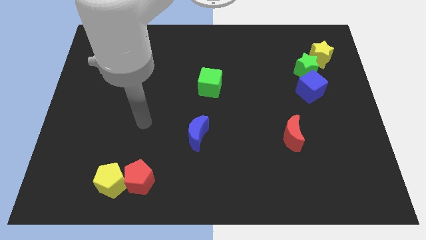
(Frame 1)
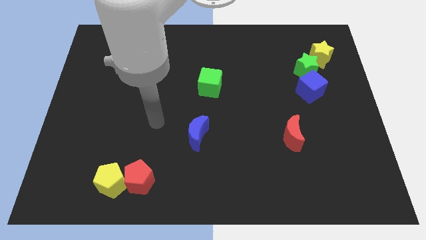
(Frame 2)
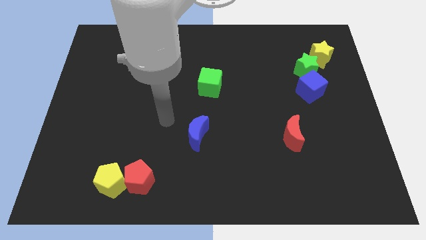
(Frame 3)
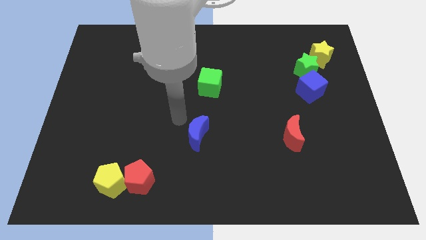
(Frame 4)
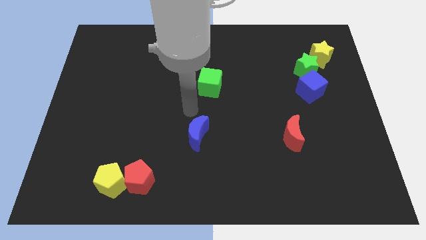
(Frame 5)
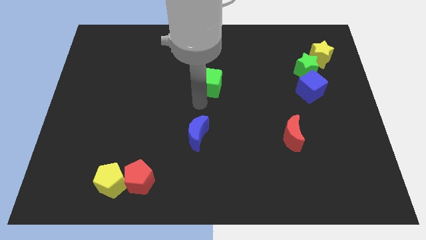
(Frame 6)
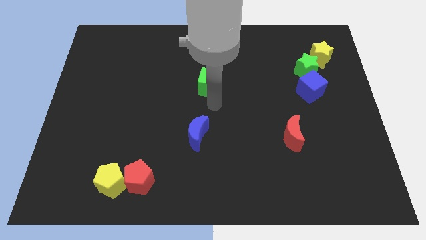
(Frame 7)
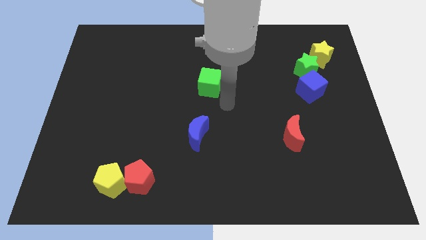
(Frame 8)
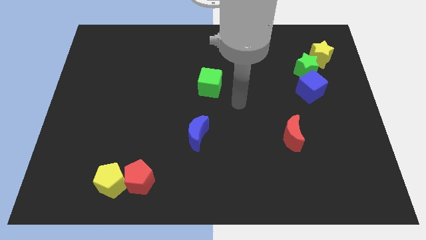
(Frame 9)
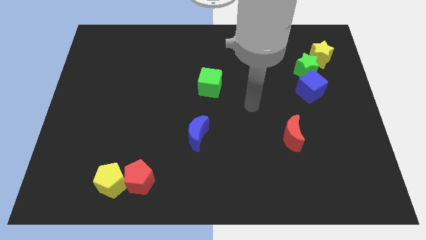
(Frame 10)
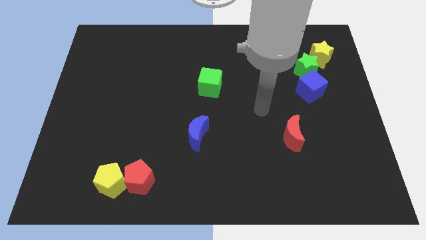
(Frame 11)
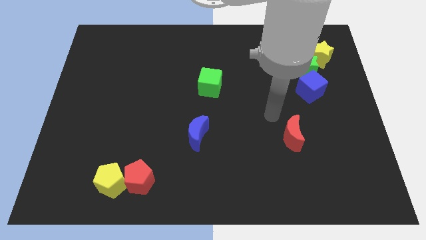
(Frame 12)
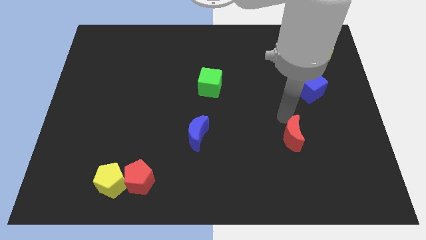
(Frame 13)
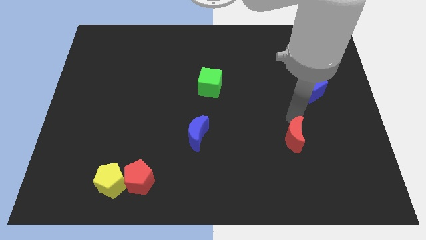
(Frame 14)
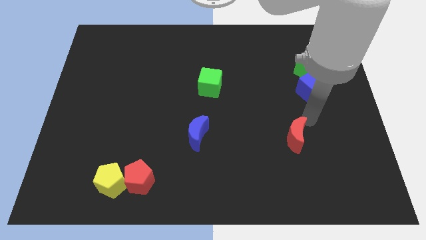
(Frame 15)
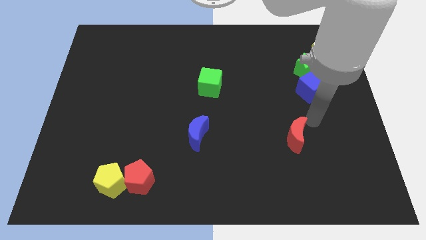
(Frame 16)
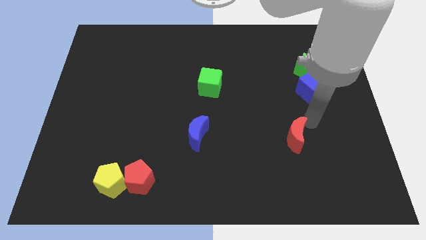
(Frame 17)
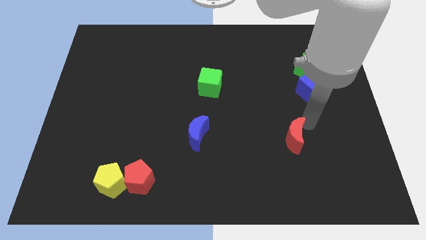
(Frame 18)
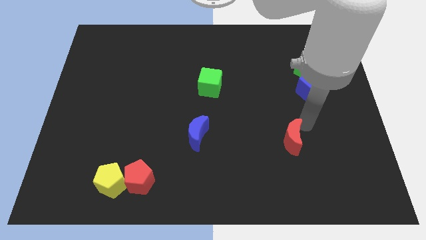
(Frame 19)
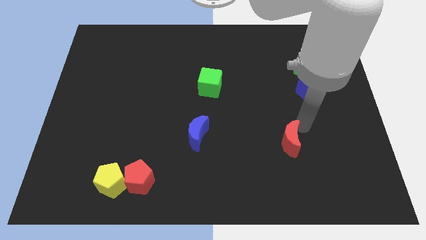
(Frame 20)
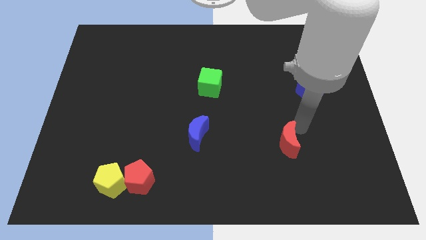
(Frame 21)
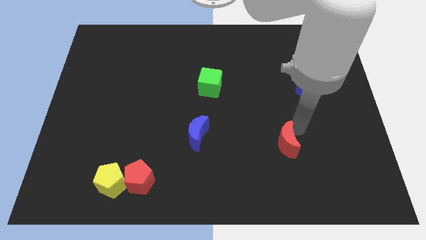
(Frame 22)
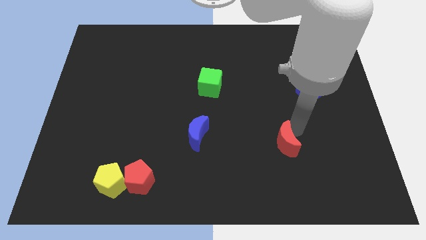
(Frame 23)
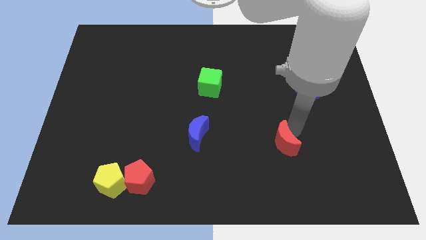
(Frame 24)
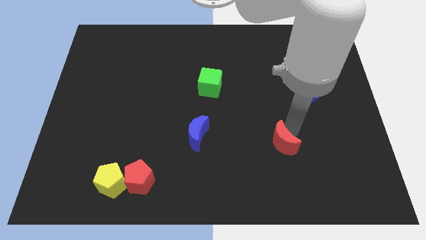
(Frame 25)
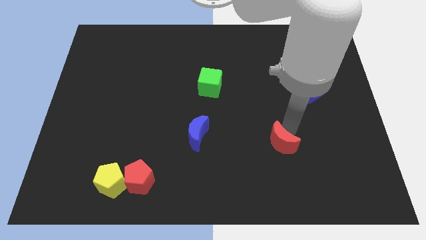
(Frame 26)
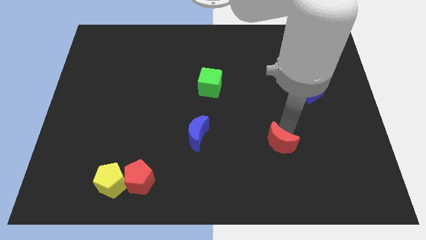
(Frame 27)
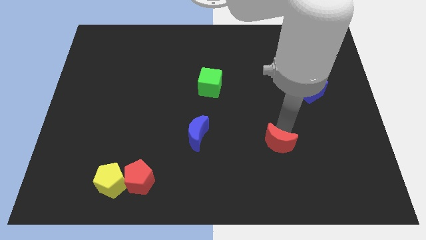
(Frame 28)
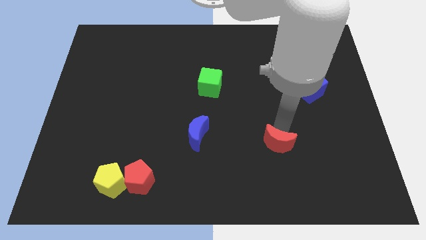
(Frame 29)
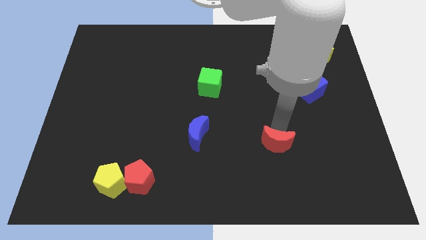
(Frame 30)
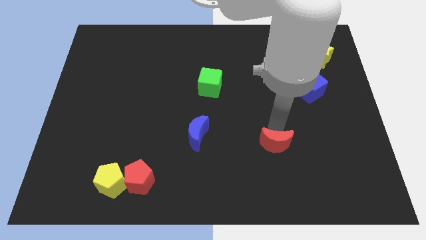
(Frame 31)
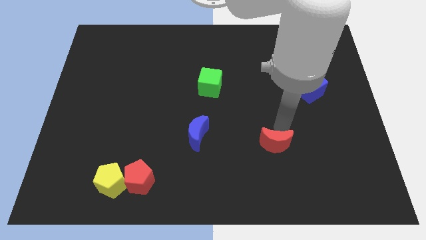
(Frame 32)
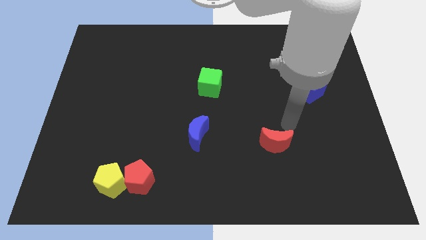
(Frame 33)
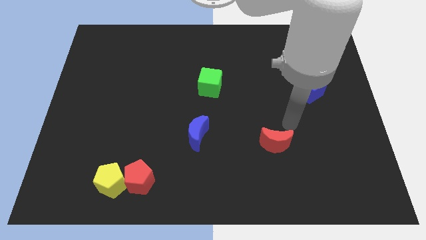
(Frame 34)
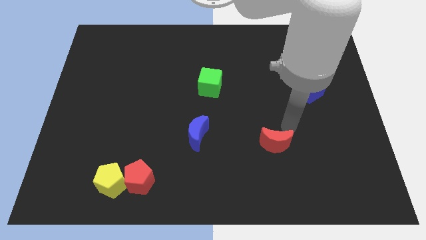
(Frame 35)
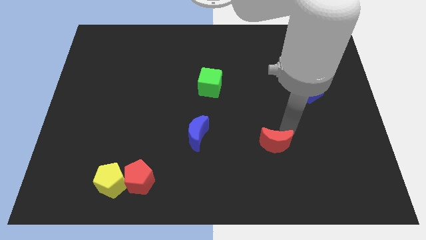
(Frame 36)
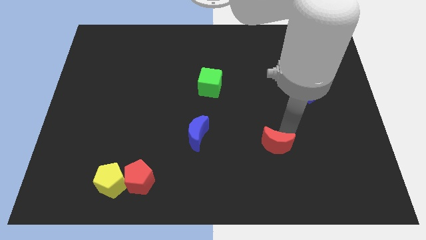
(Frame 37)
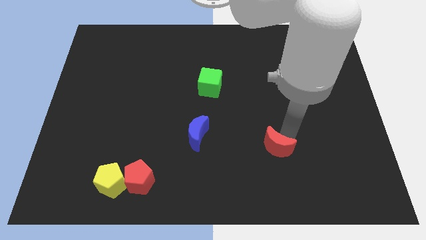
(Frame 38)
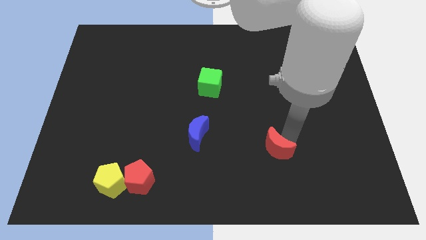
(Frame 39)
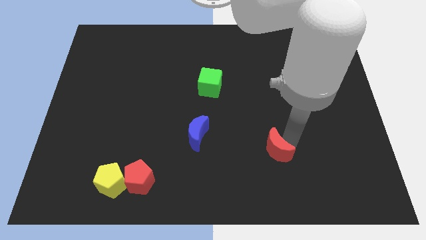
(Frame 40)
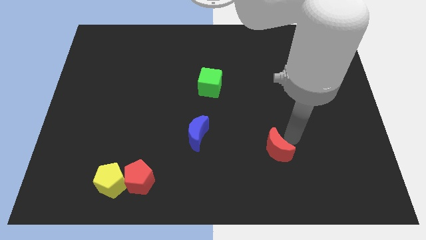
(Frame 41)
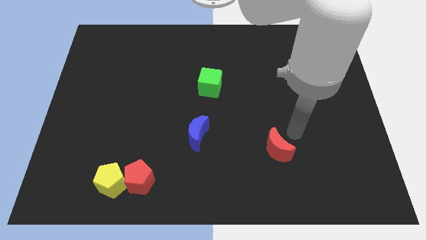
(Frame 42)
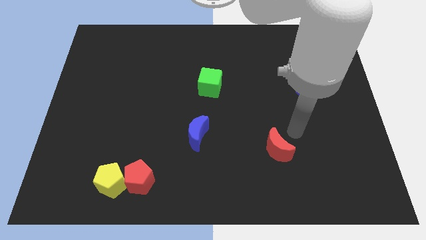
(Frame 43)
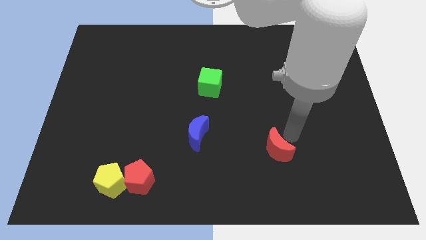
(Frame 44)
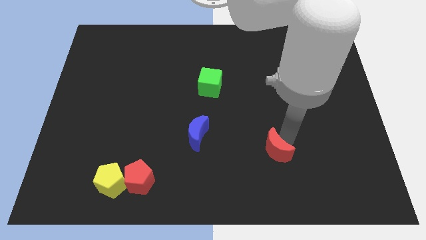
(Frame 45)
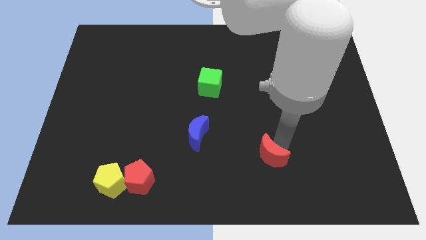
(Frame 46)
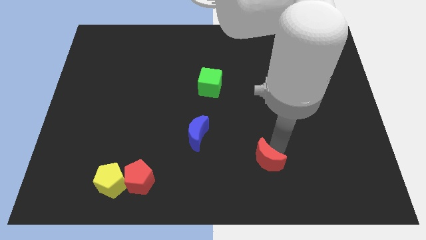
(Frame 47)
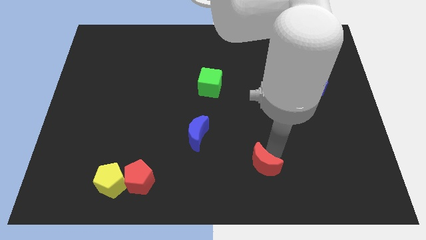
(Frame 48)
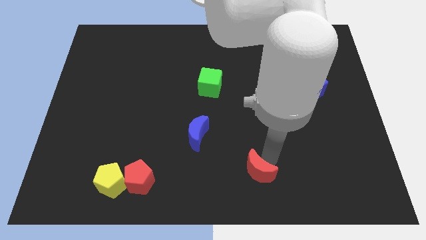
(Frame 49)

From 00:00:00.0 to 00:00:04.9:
move the red moon to the bottom

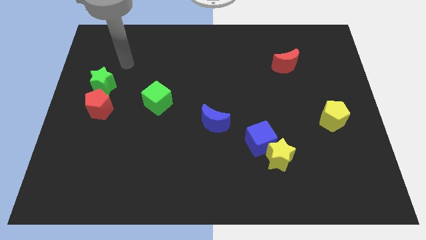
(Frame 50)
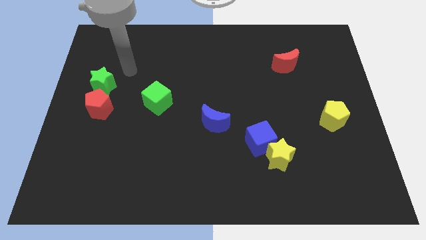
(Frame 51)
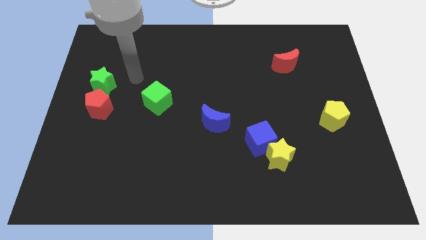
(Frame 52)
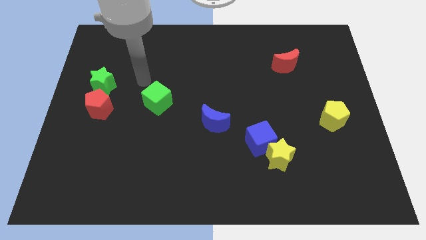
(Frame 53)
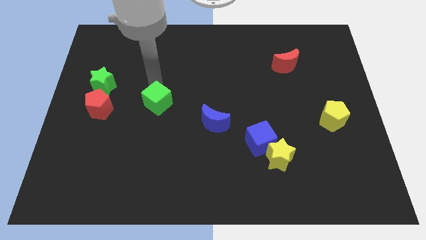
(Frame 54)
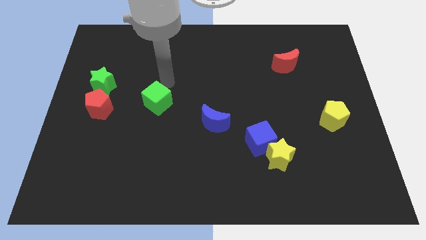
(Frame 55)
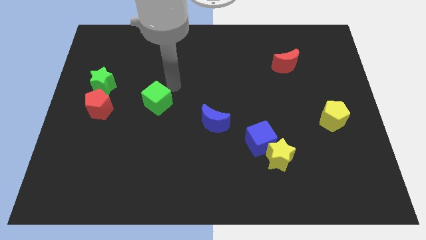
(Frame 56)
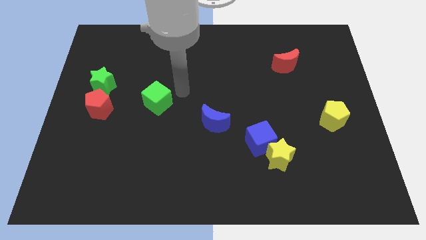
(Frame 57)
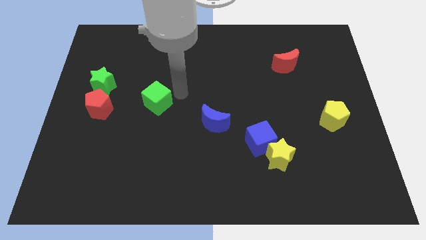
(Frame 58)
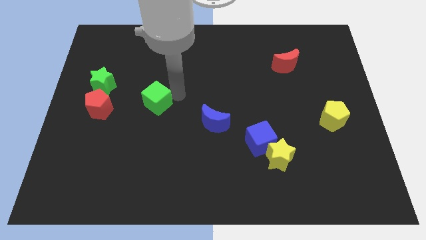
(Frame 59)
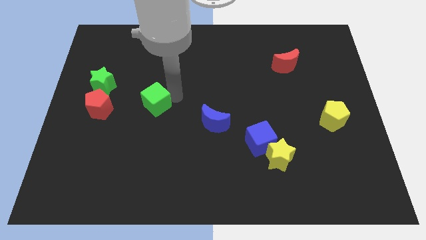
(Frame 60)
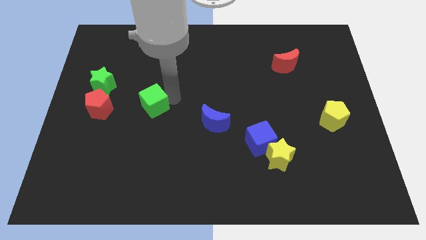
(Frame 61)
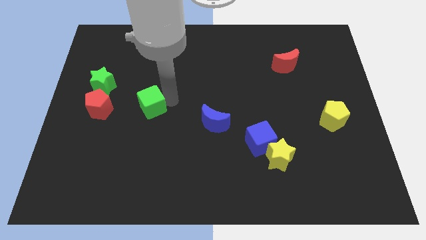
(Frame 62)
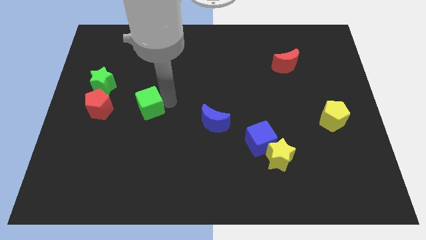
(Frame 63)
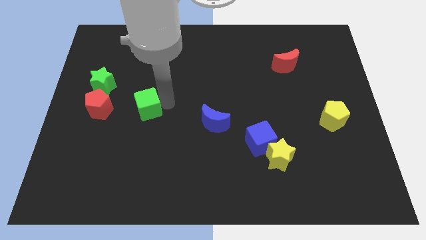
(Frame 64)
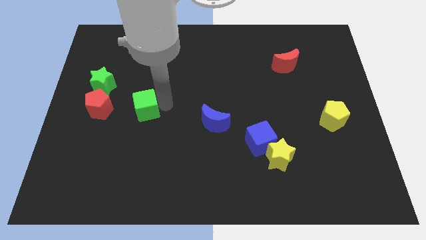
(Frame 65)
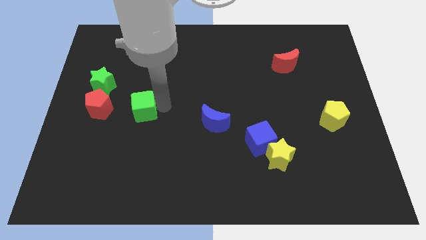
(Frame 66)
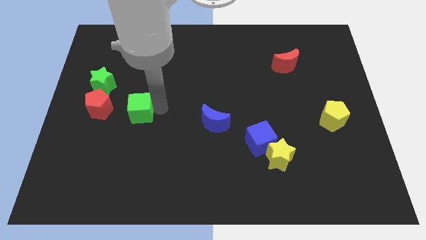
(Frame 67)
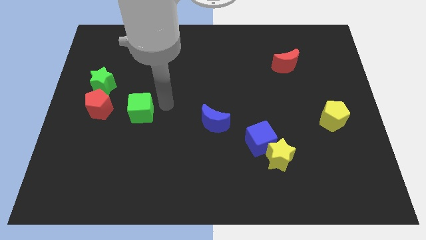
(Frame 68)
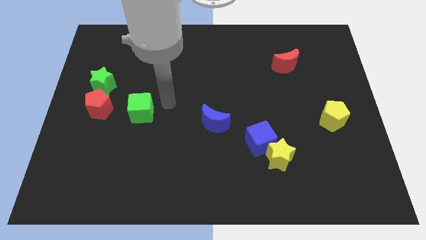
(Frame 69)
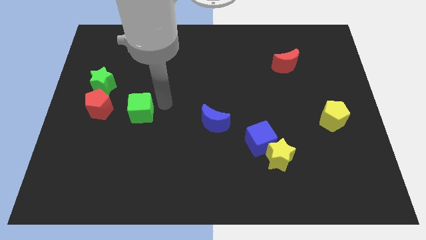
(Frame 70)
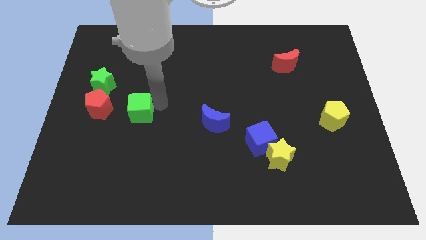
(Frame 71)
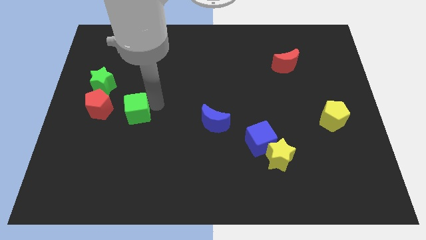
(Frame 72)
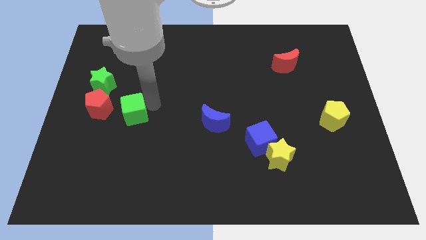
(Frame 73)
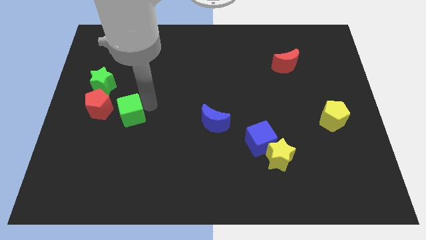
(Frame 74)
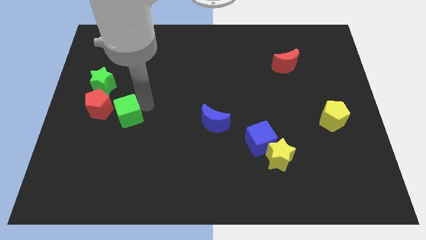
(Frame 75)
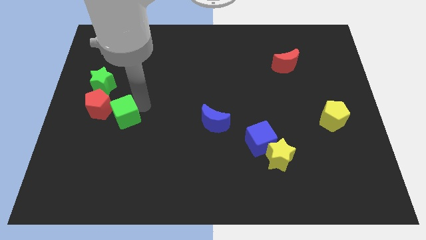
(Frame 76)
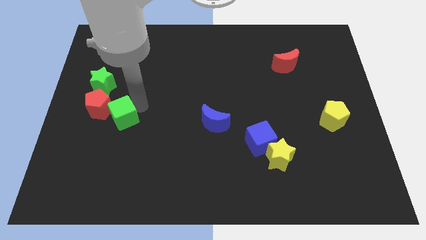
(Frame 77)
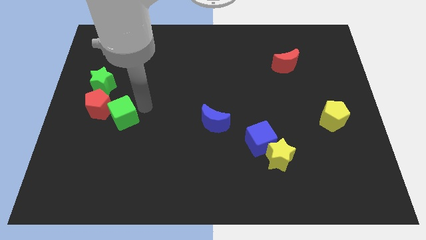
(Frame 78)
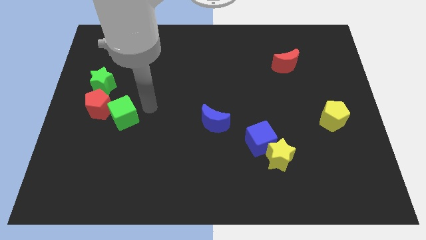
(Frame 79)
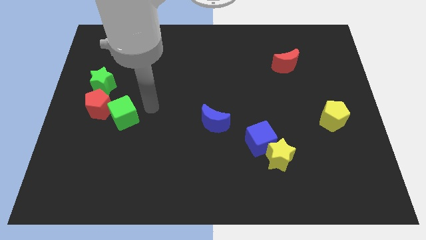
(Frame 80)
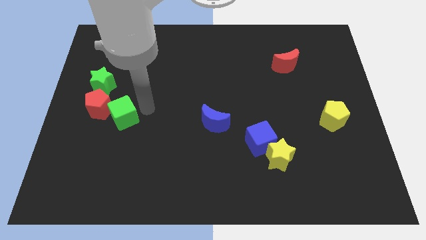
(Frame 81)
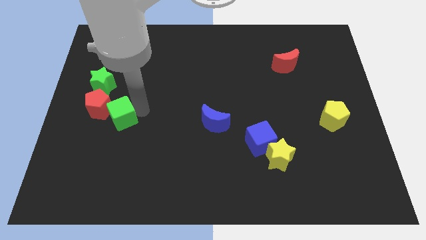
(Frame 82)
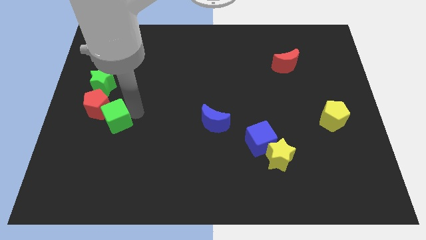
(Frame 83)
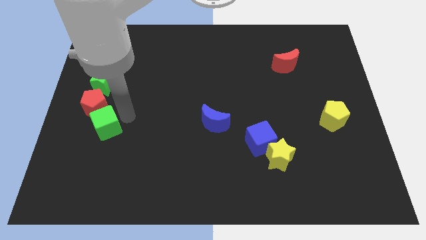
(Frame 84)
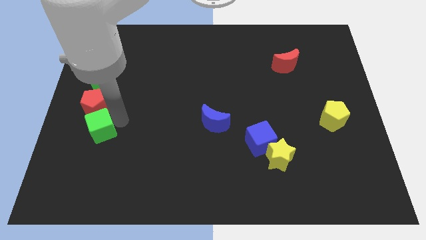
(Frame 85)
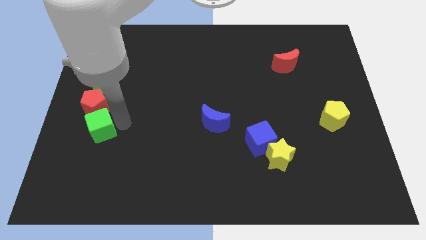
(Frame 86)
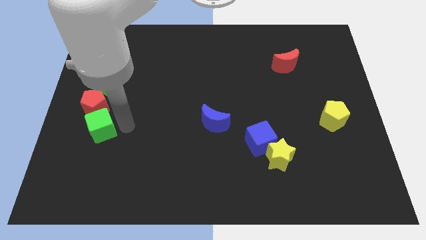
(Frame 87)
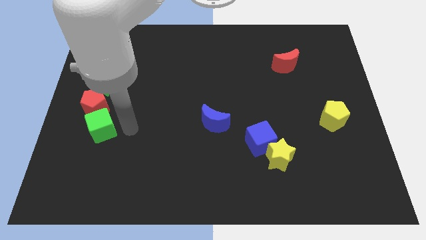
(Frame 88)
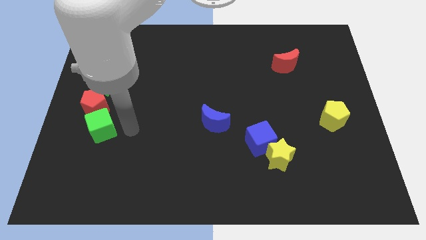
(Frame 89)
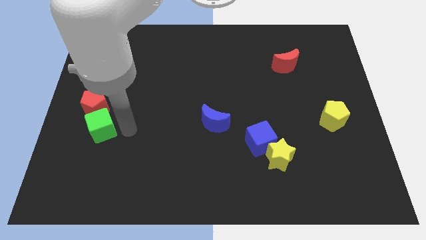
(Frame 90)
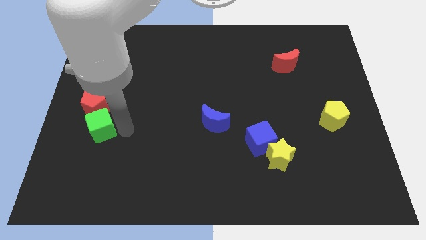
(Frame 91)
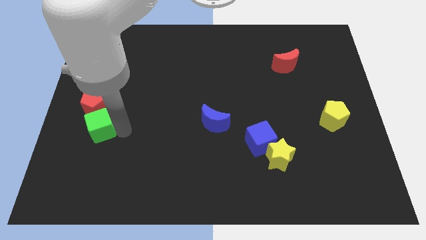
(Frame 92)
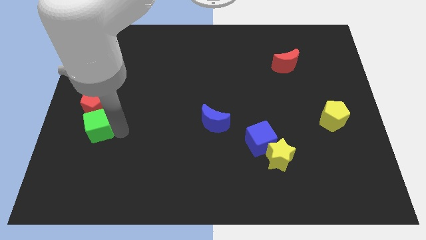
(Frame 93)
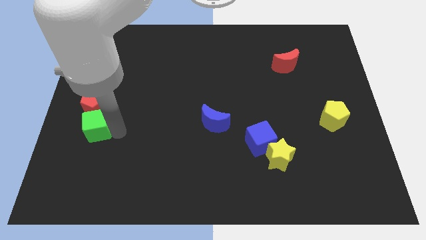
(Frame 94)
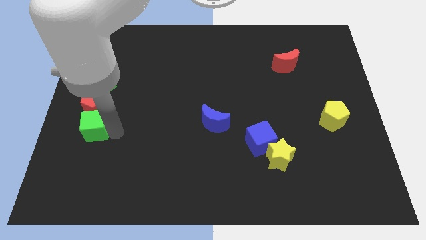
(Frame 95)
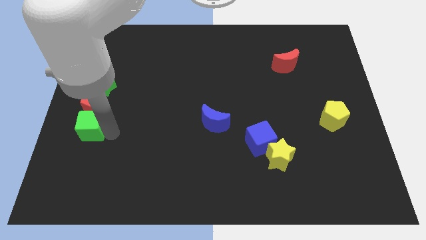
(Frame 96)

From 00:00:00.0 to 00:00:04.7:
push the green cube to the left side of the board
